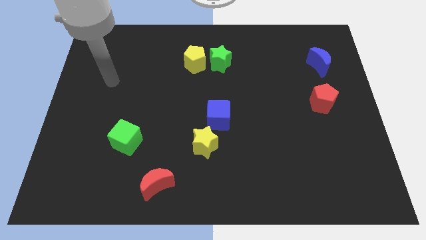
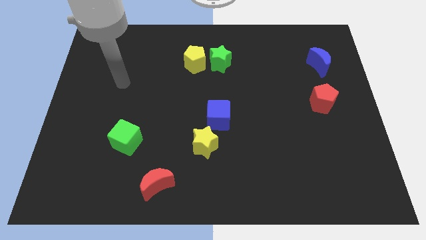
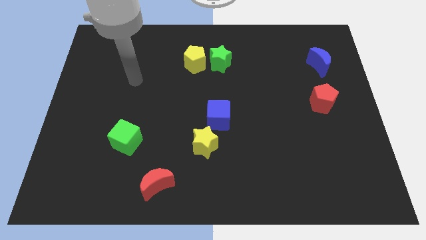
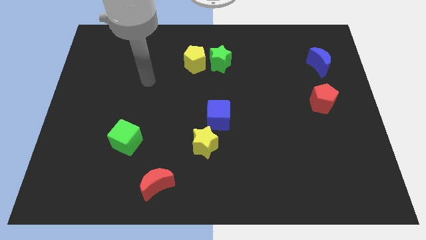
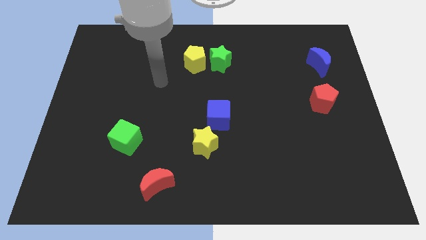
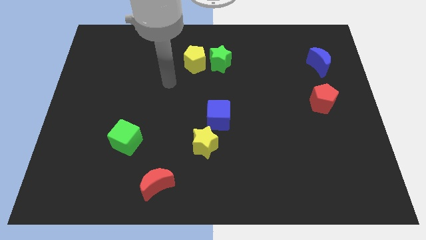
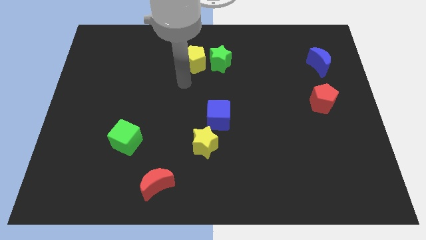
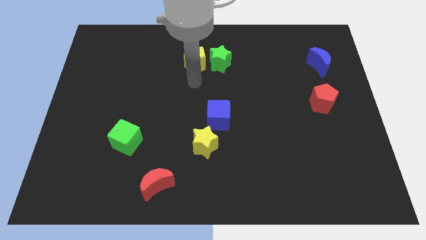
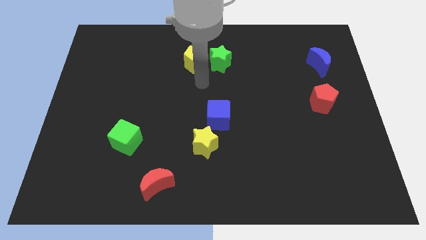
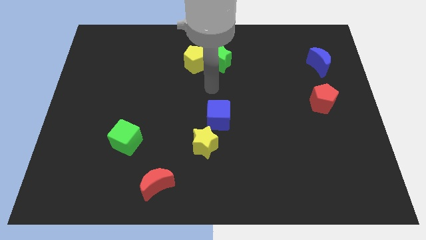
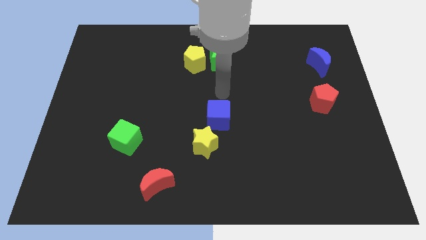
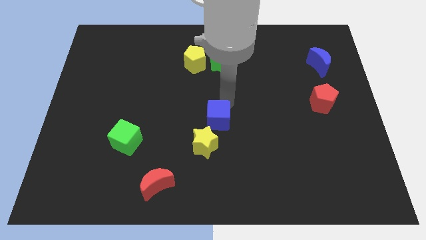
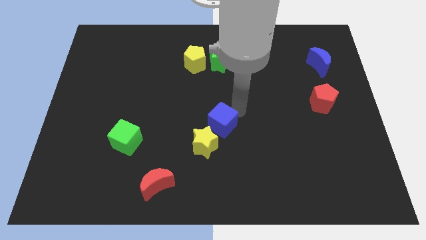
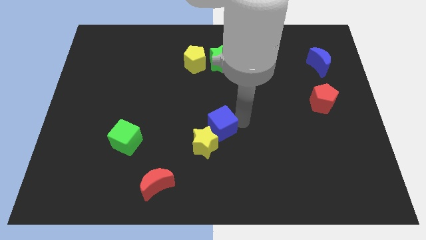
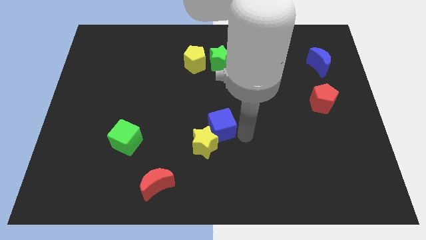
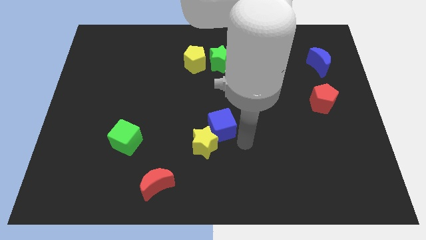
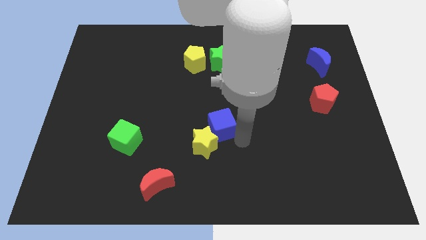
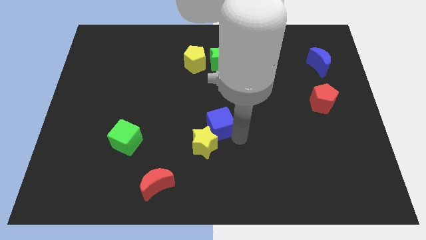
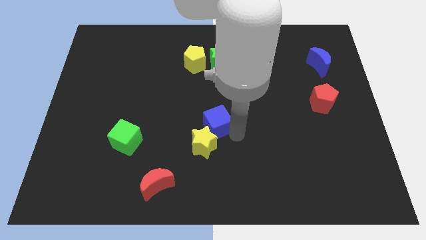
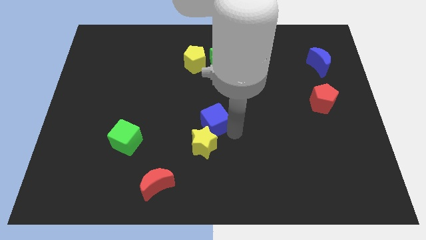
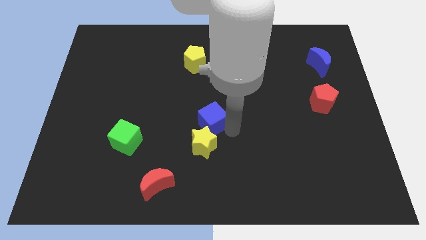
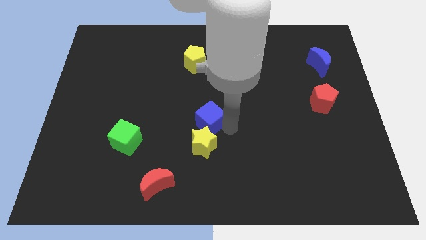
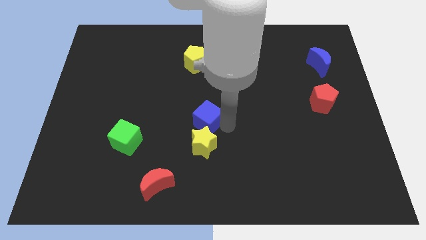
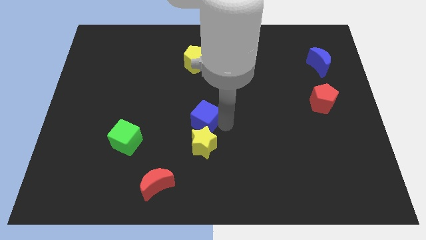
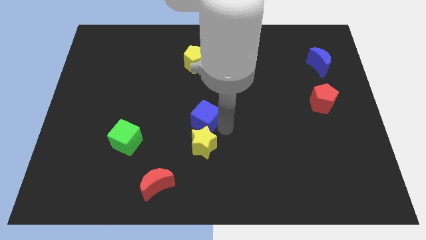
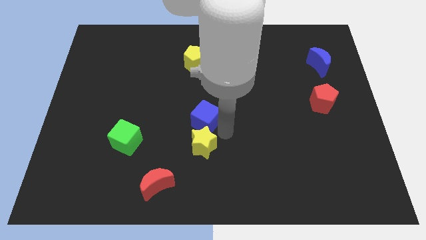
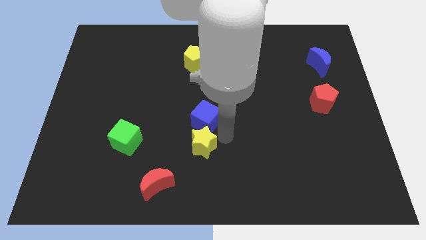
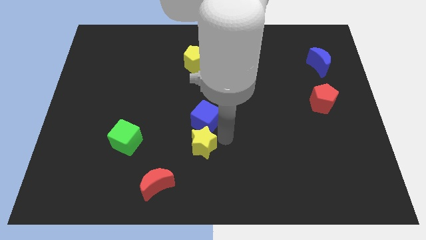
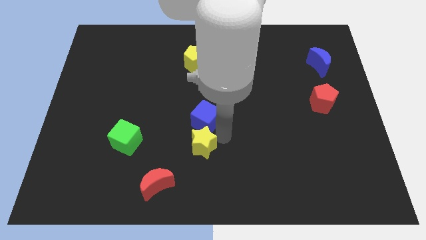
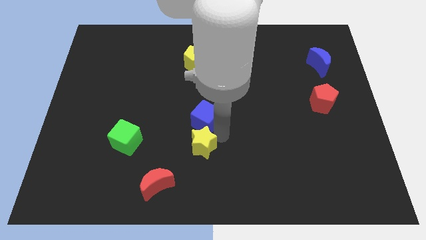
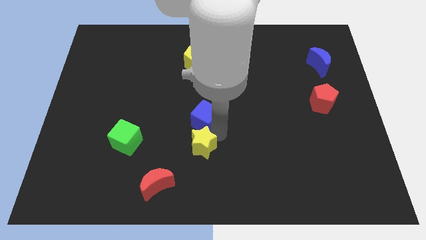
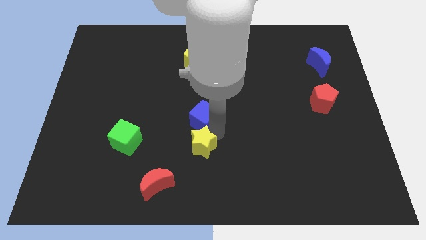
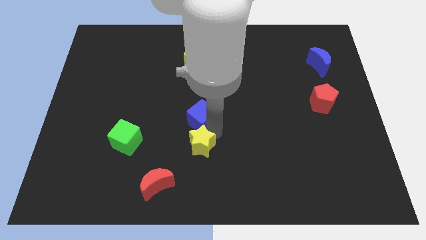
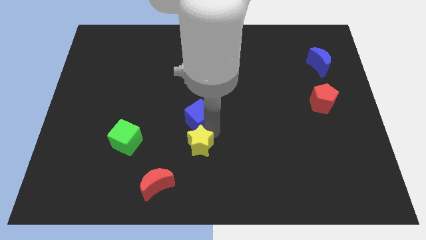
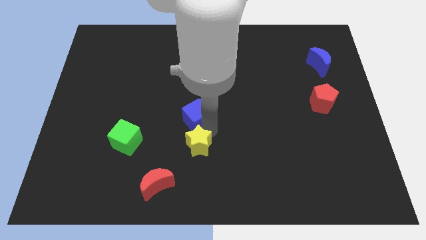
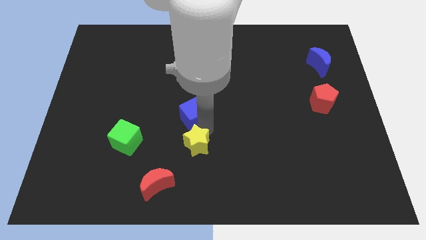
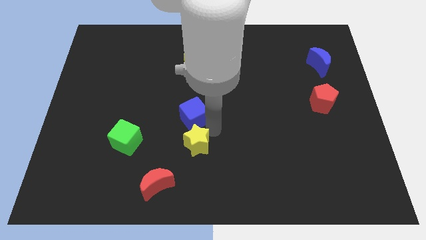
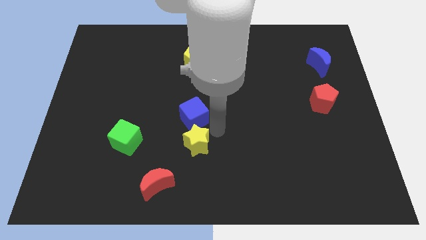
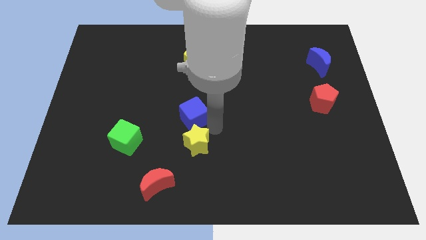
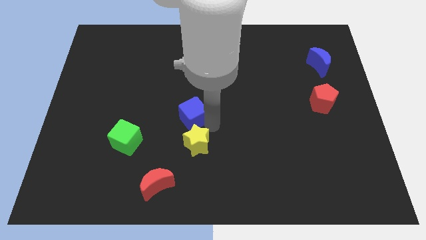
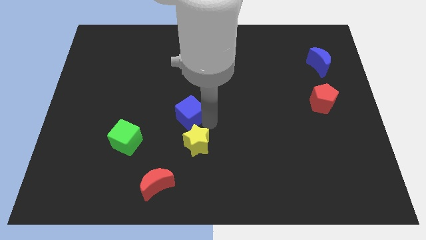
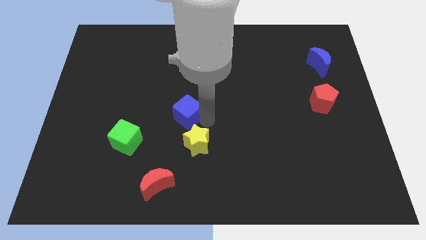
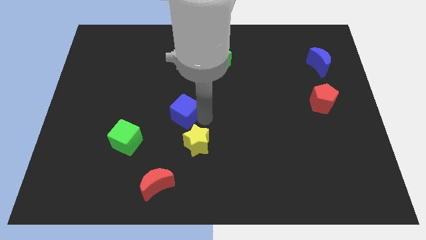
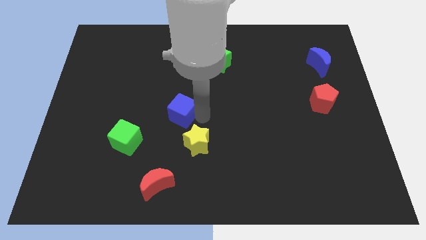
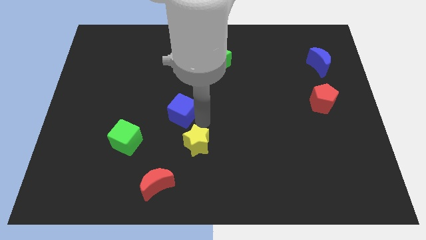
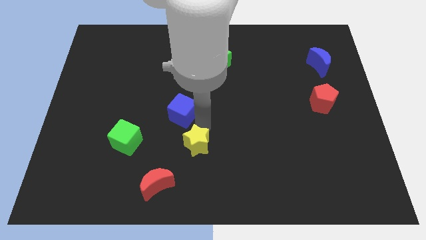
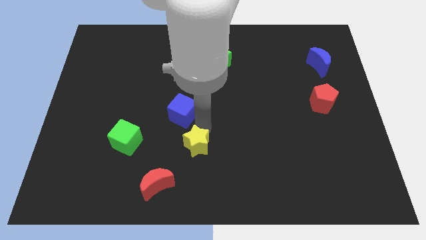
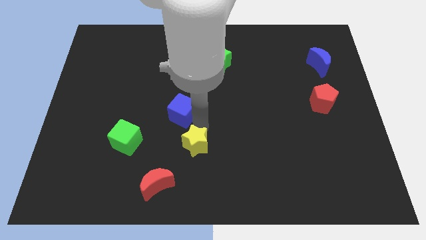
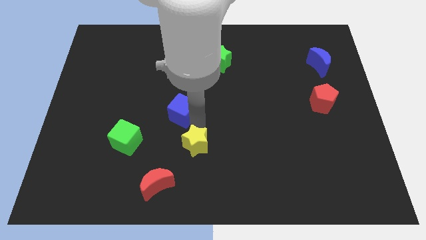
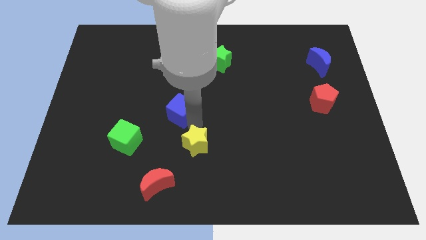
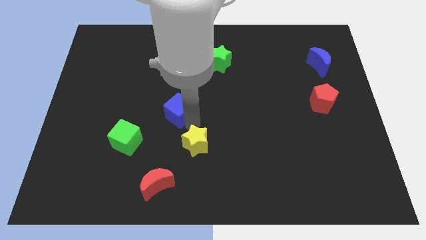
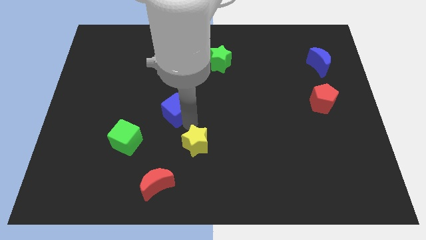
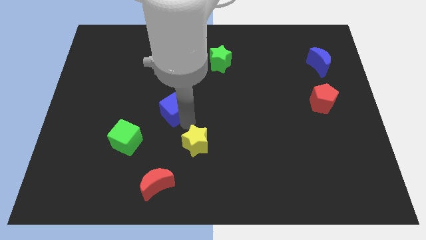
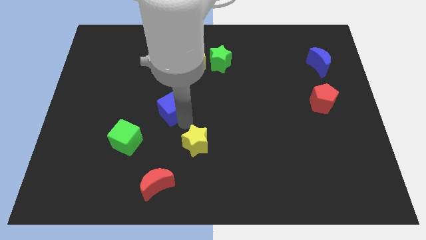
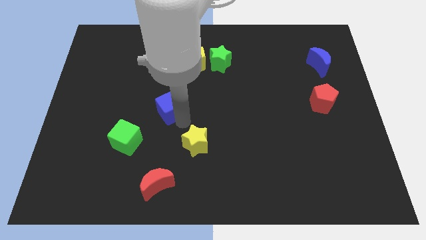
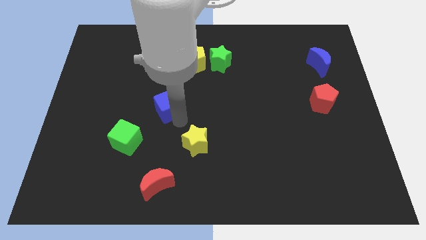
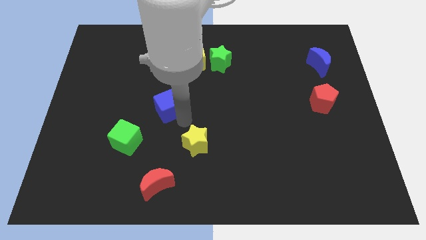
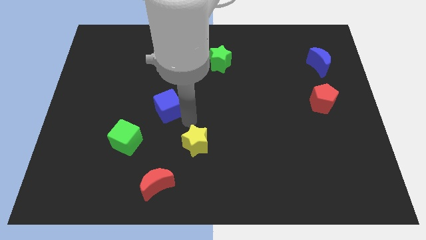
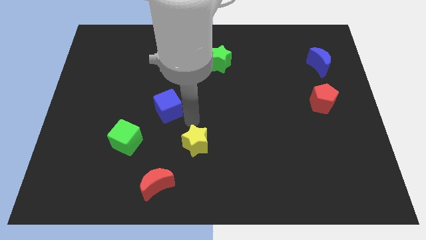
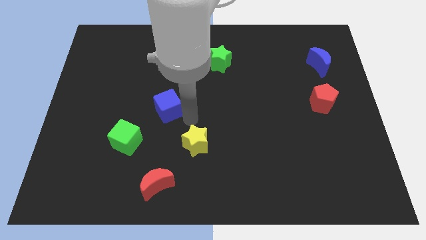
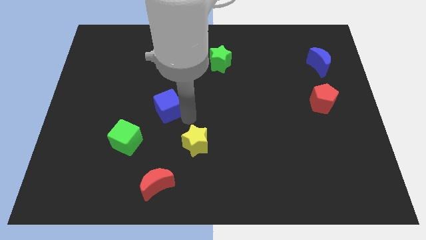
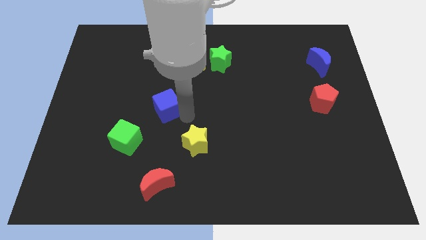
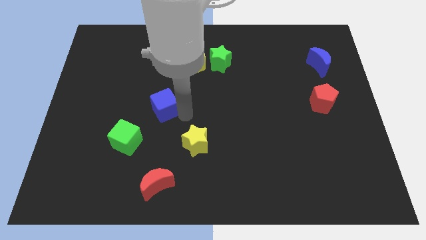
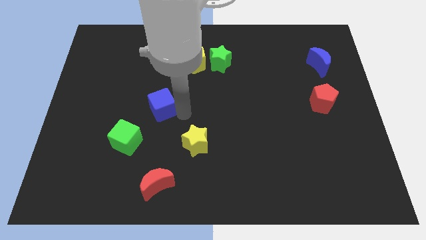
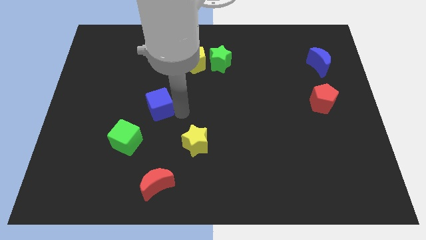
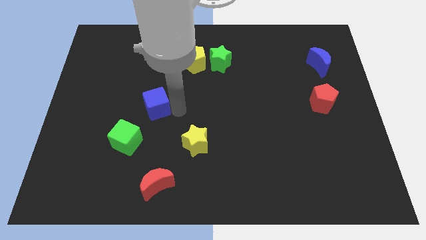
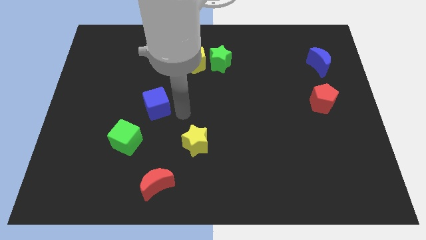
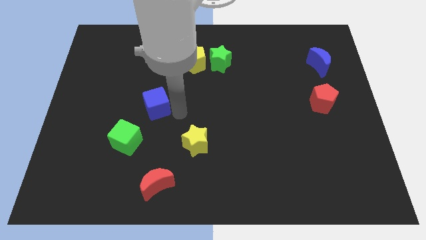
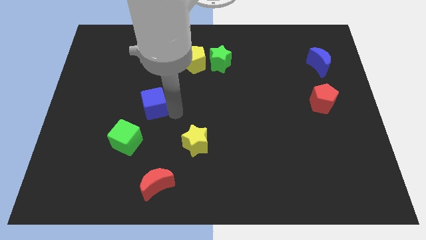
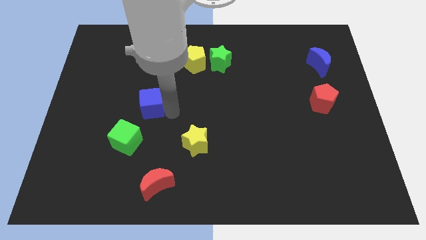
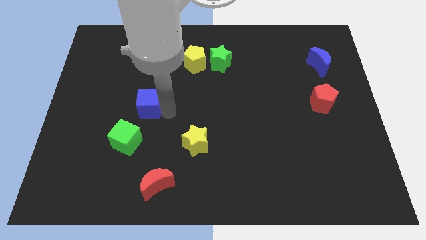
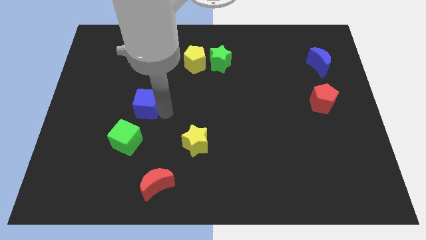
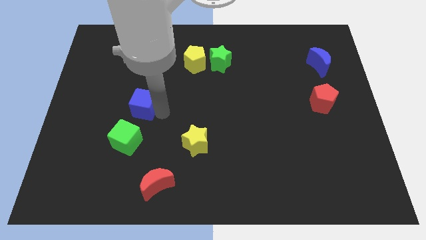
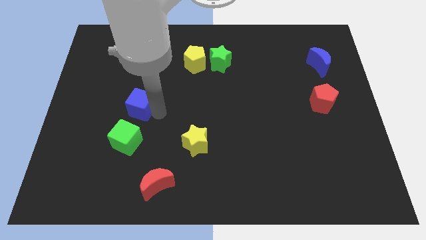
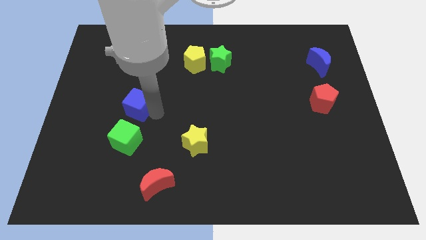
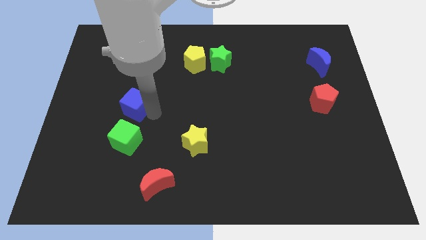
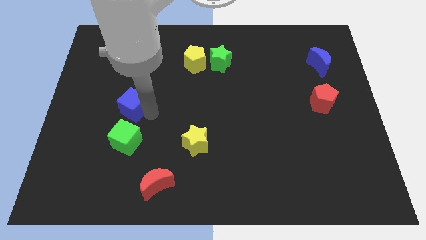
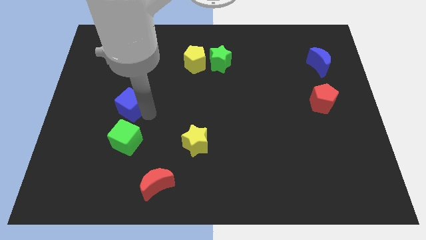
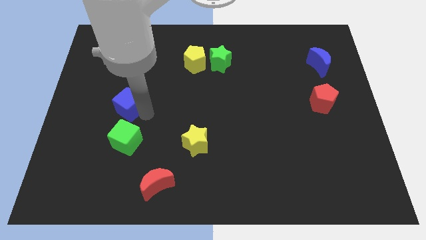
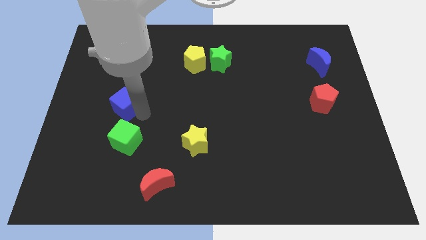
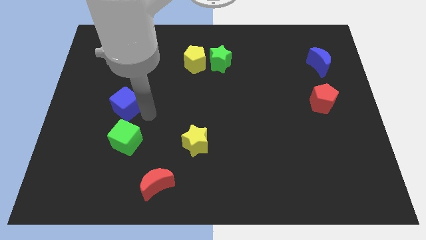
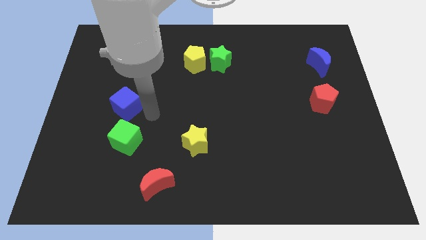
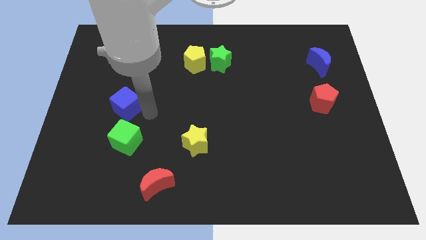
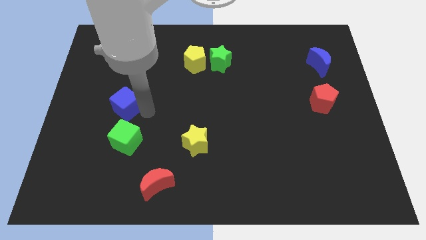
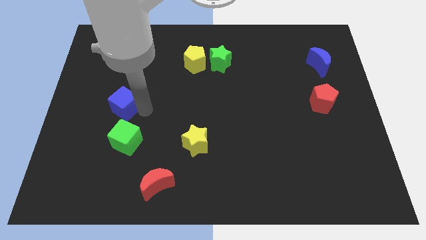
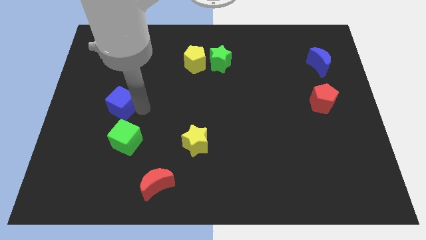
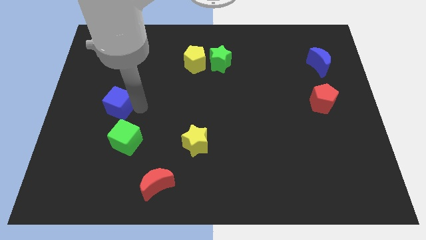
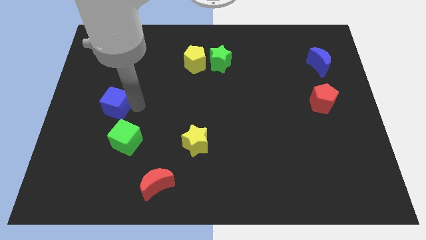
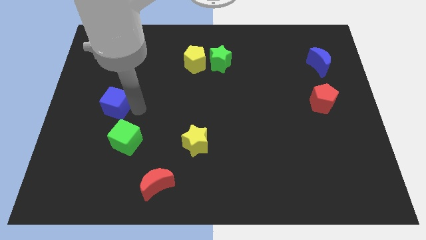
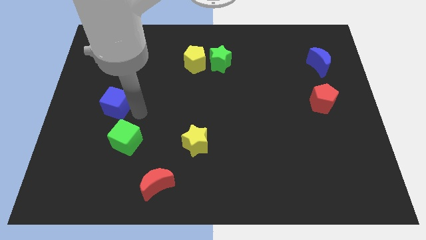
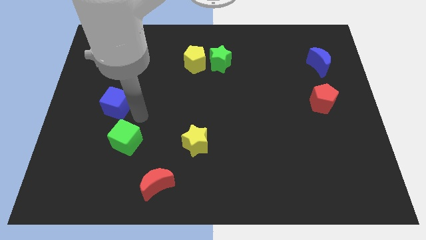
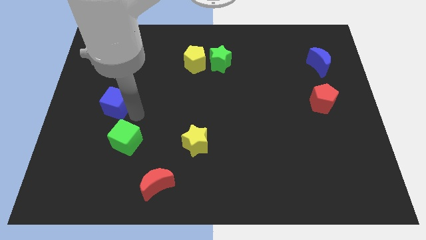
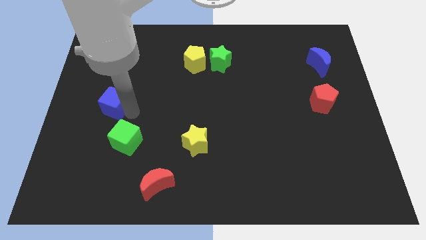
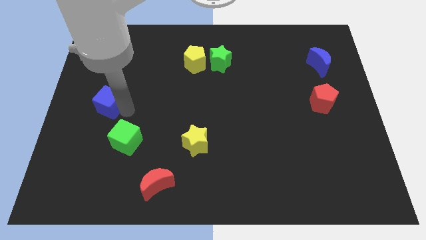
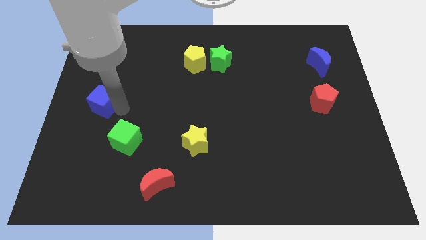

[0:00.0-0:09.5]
push the blue cube to the left side of the board
